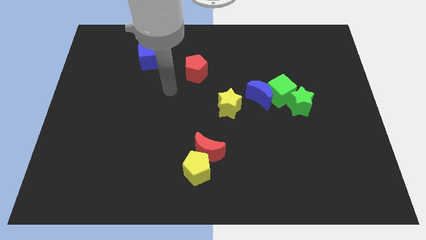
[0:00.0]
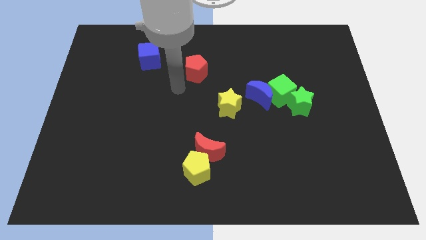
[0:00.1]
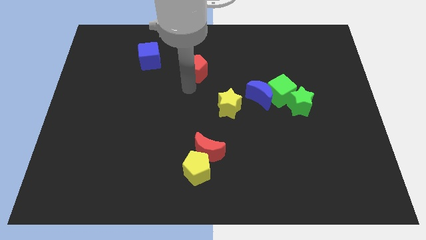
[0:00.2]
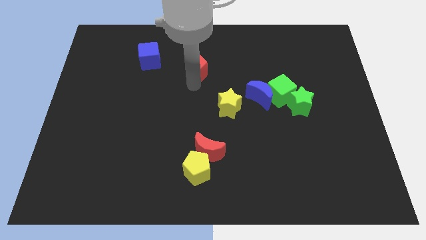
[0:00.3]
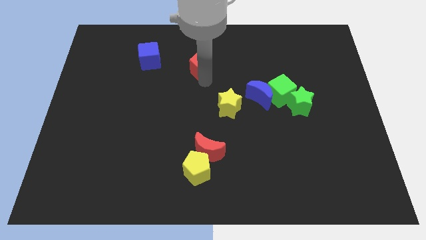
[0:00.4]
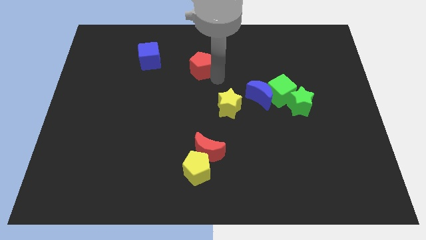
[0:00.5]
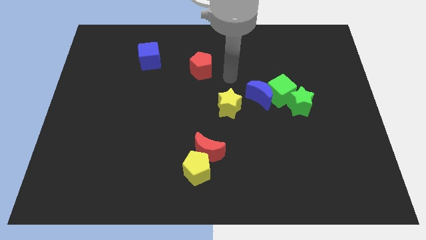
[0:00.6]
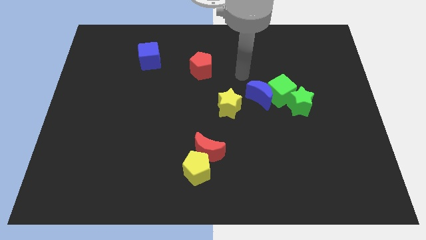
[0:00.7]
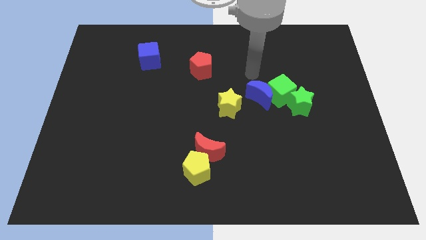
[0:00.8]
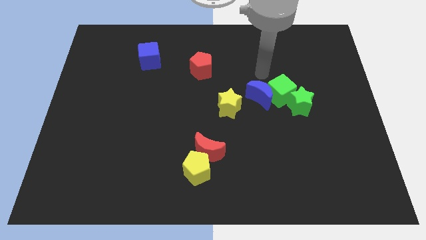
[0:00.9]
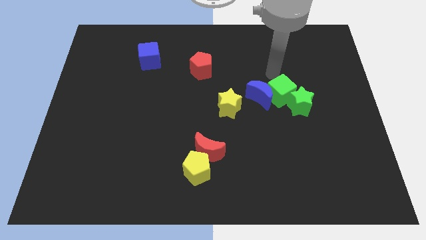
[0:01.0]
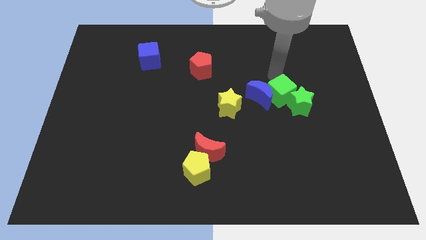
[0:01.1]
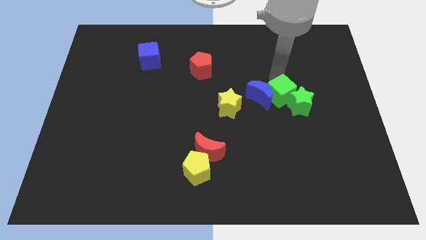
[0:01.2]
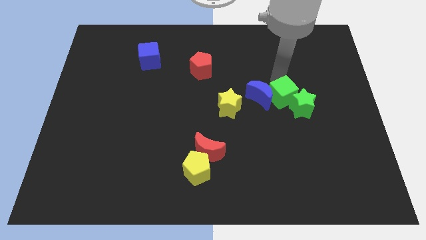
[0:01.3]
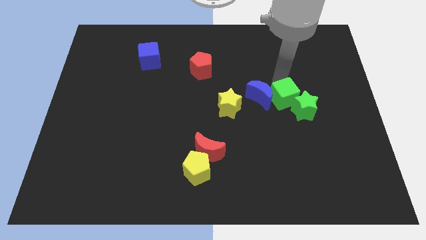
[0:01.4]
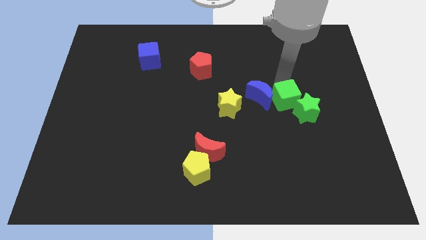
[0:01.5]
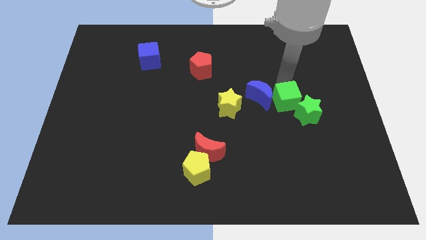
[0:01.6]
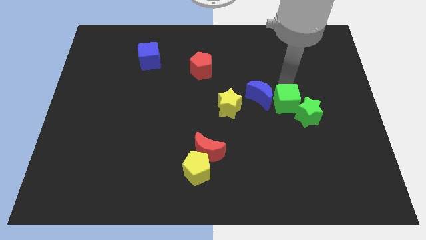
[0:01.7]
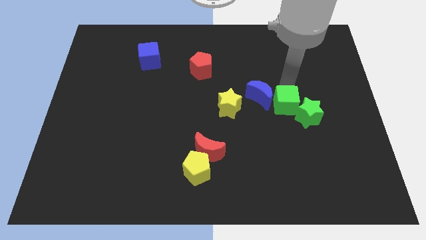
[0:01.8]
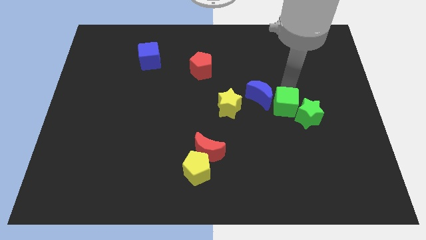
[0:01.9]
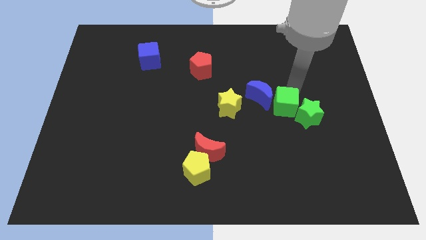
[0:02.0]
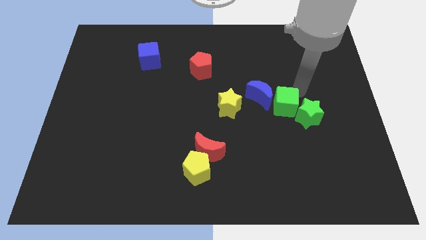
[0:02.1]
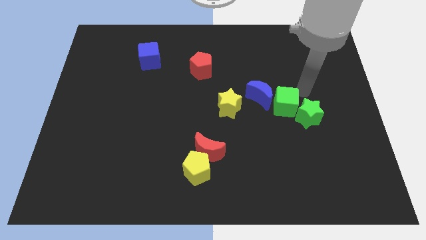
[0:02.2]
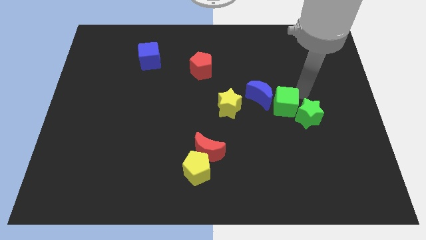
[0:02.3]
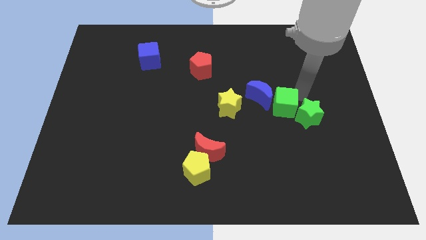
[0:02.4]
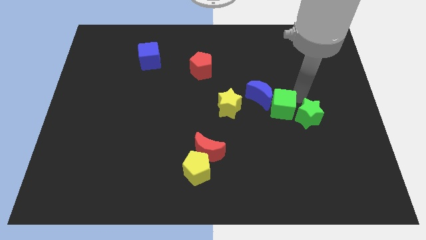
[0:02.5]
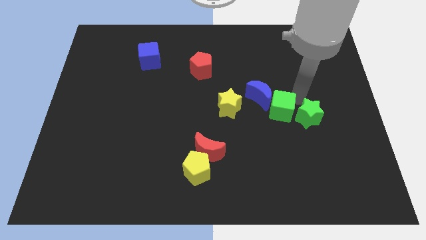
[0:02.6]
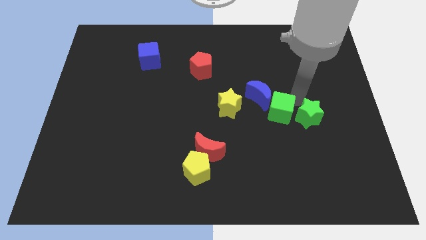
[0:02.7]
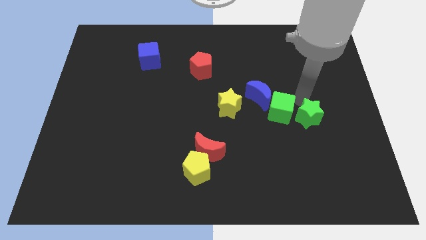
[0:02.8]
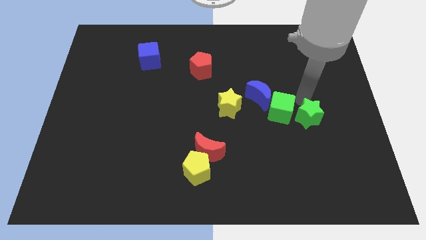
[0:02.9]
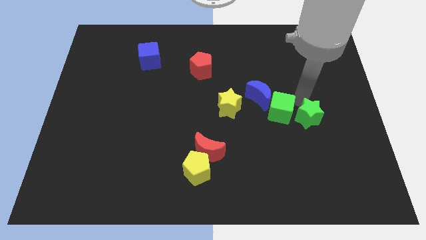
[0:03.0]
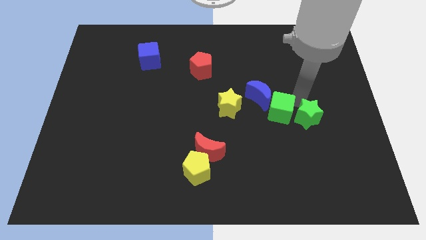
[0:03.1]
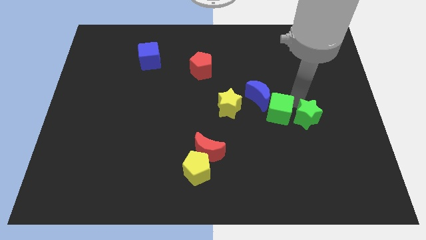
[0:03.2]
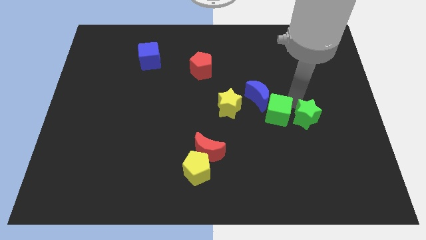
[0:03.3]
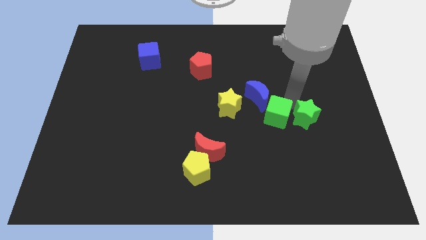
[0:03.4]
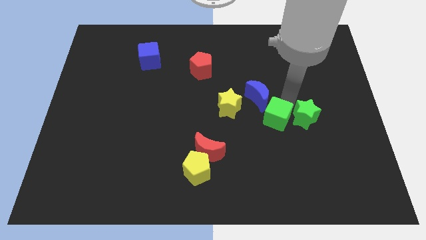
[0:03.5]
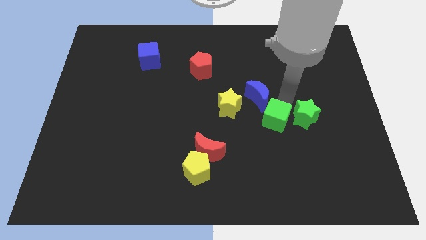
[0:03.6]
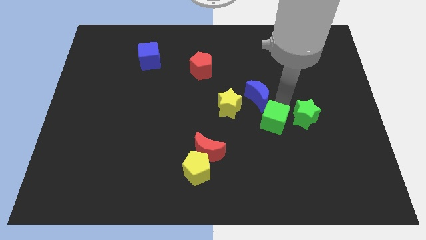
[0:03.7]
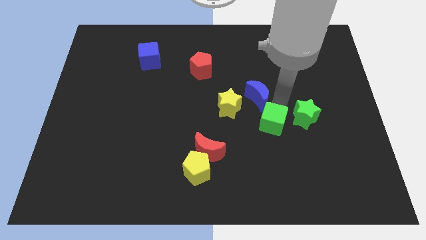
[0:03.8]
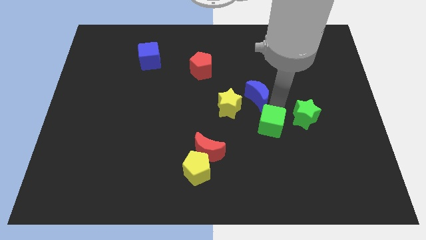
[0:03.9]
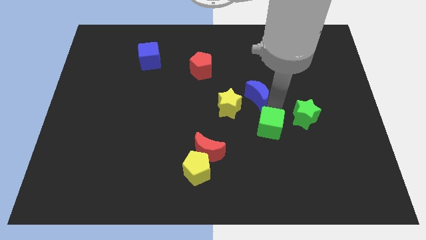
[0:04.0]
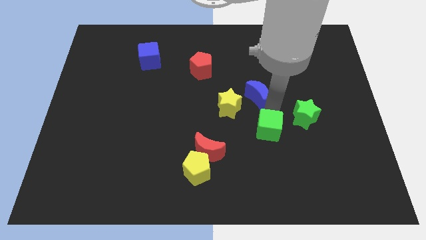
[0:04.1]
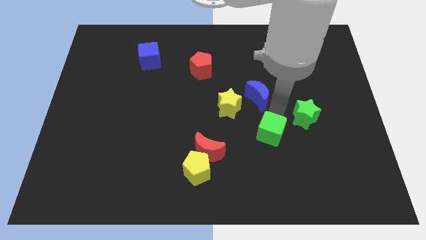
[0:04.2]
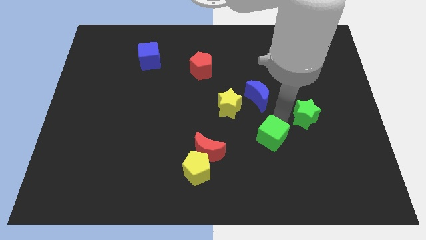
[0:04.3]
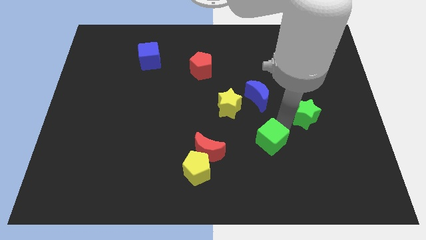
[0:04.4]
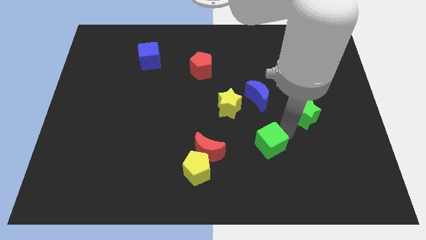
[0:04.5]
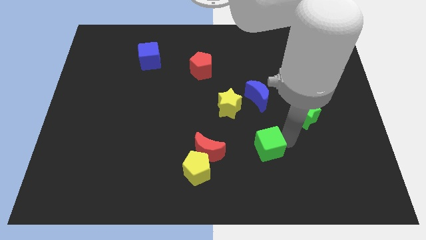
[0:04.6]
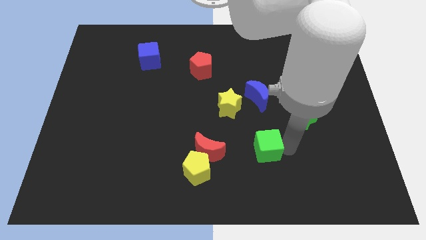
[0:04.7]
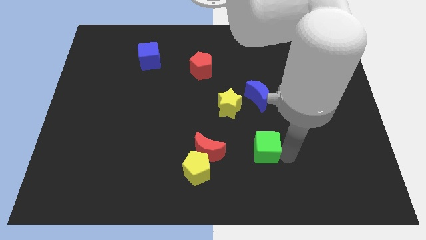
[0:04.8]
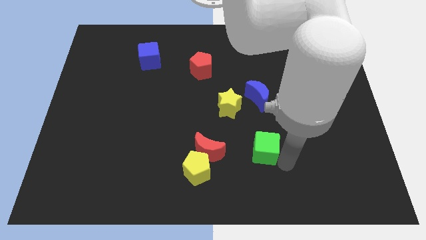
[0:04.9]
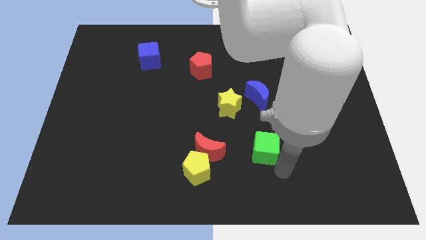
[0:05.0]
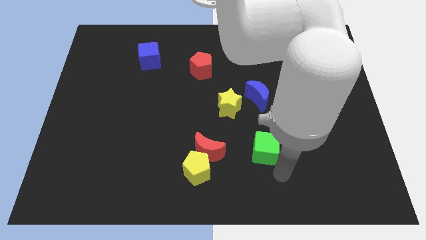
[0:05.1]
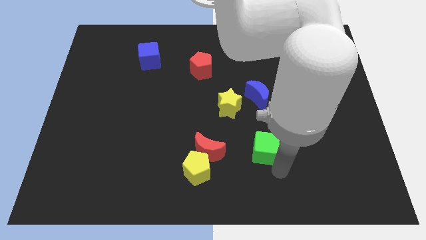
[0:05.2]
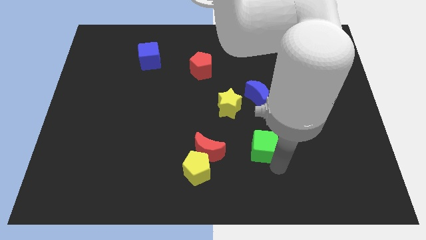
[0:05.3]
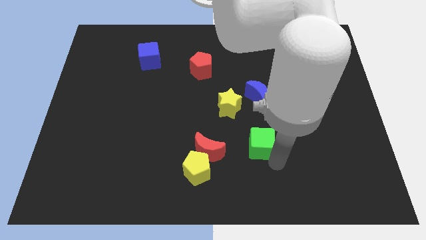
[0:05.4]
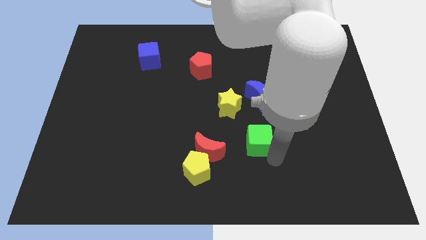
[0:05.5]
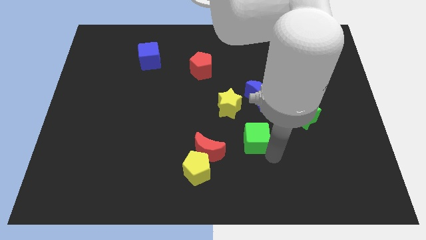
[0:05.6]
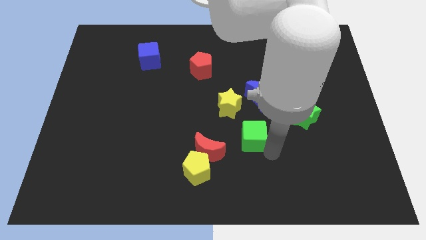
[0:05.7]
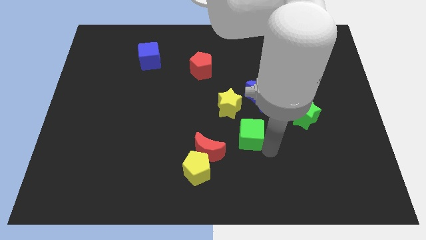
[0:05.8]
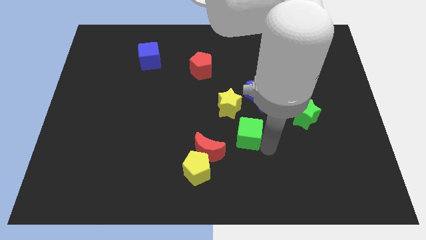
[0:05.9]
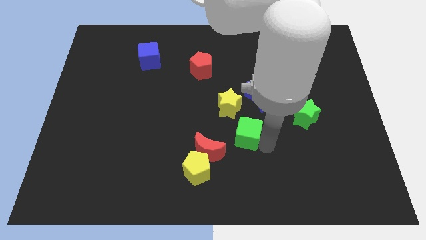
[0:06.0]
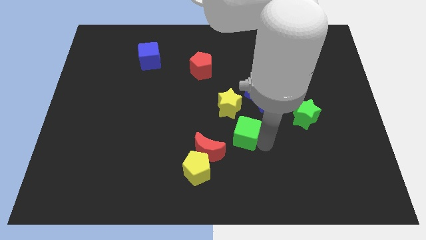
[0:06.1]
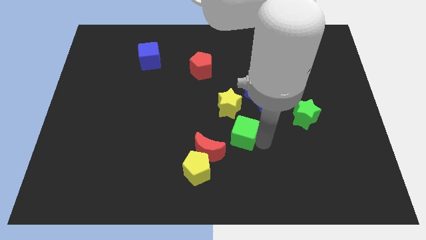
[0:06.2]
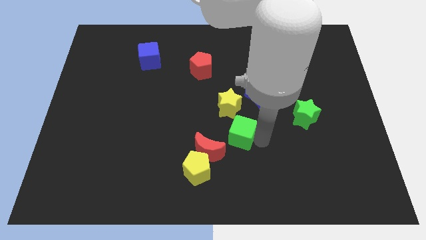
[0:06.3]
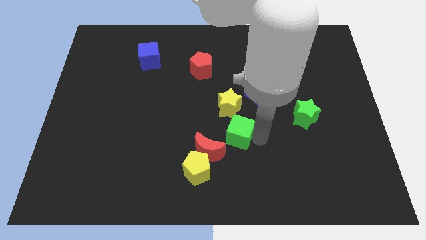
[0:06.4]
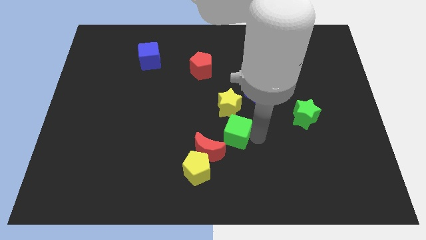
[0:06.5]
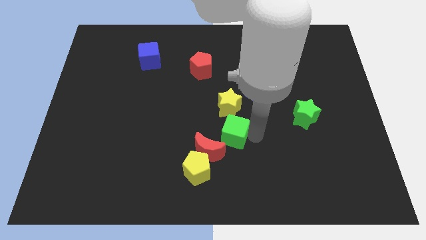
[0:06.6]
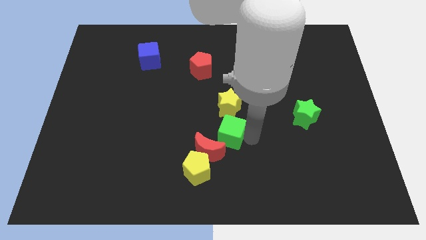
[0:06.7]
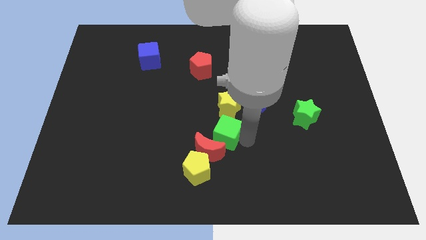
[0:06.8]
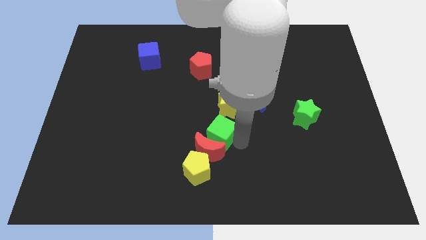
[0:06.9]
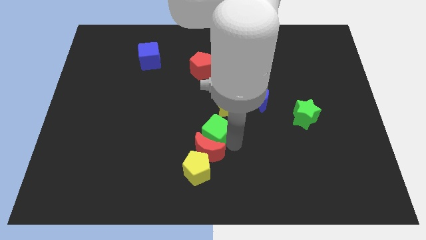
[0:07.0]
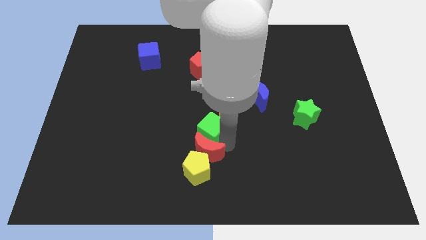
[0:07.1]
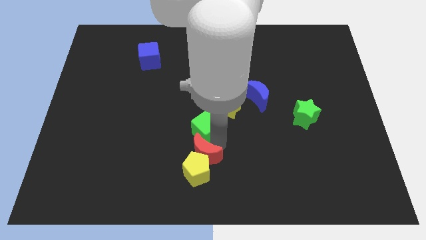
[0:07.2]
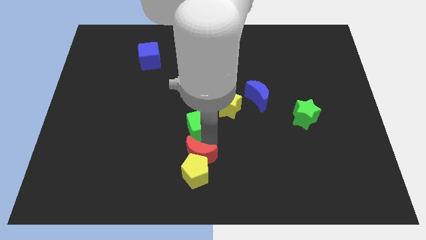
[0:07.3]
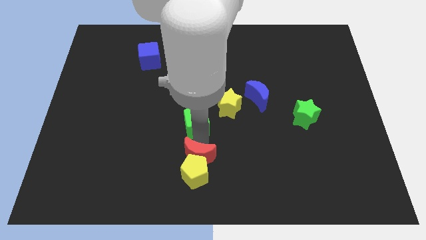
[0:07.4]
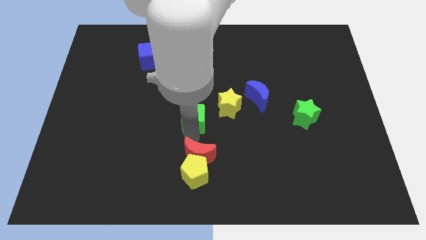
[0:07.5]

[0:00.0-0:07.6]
put the green cube just left of the yellow star

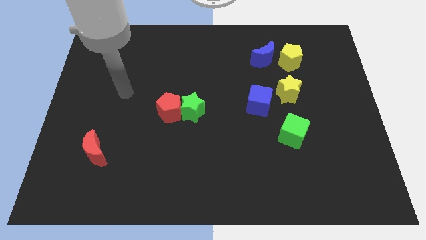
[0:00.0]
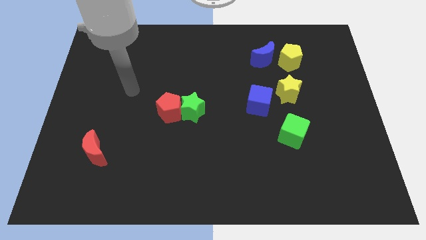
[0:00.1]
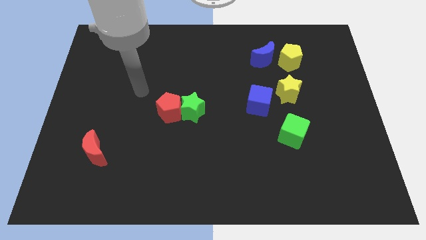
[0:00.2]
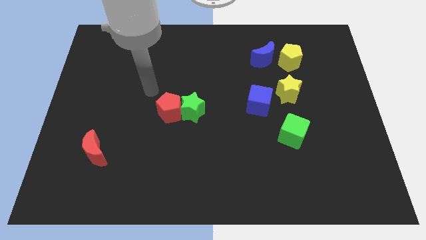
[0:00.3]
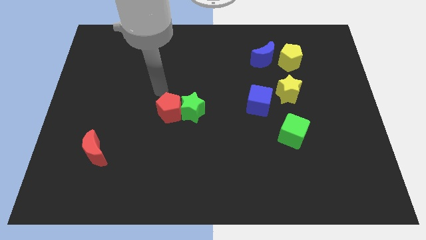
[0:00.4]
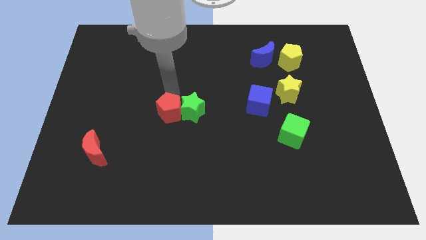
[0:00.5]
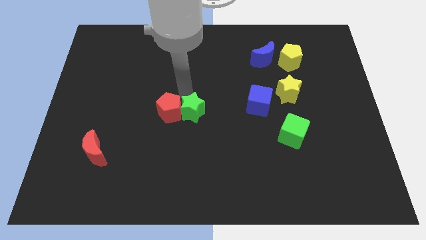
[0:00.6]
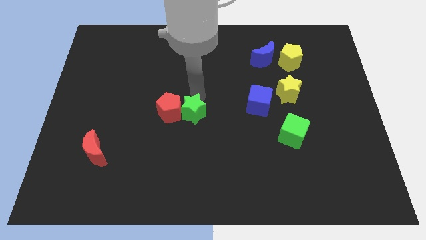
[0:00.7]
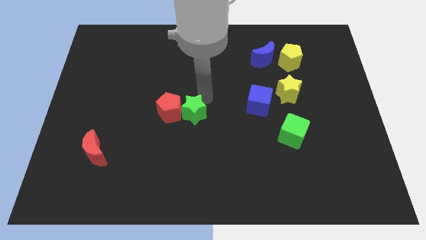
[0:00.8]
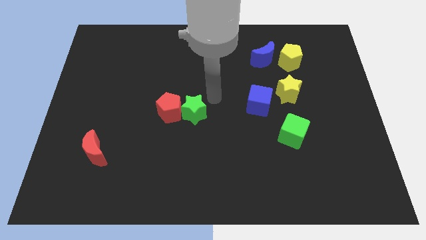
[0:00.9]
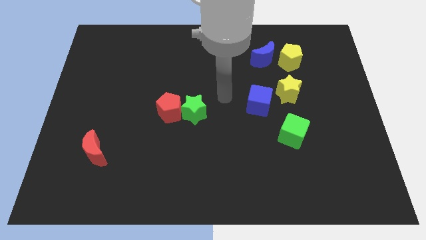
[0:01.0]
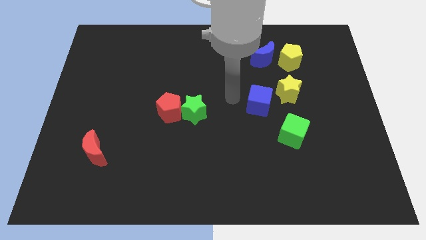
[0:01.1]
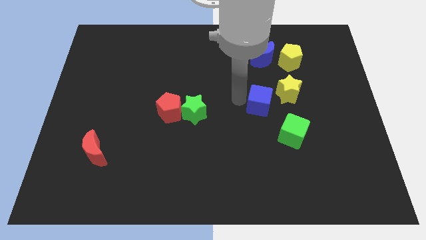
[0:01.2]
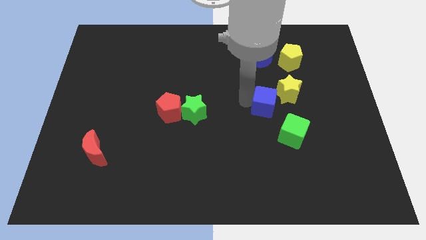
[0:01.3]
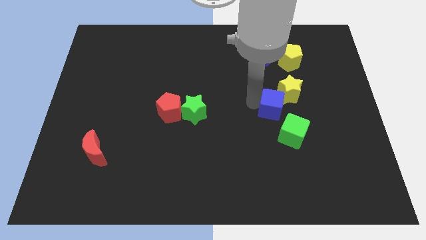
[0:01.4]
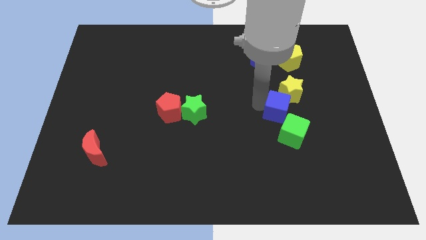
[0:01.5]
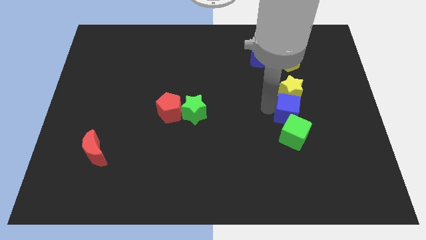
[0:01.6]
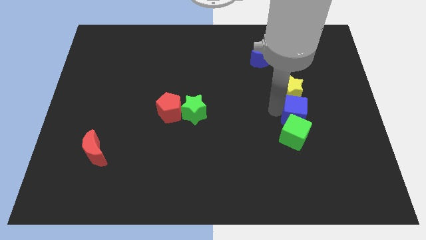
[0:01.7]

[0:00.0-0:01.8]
push the blue cube diagonally up and to the right of the green cube
